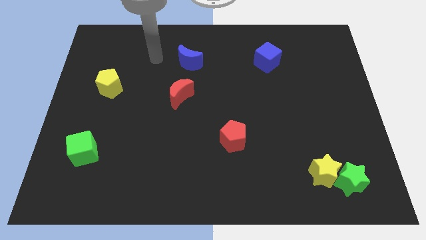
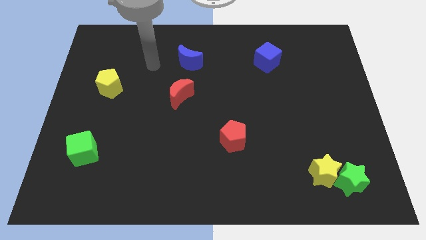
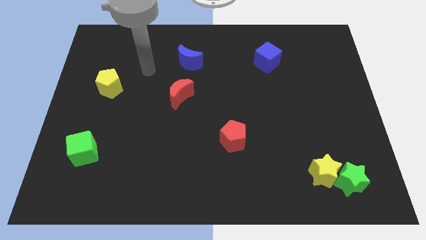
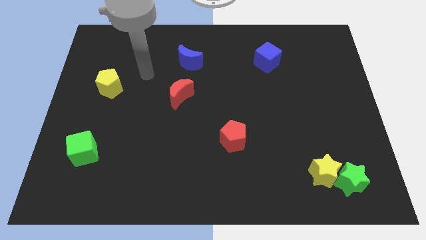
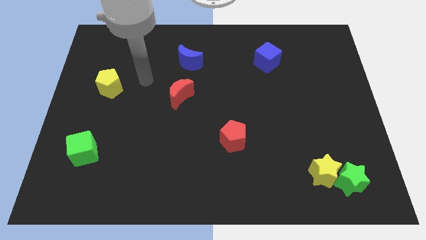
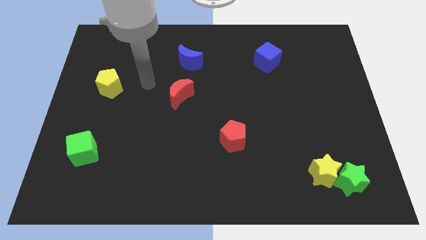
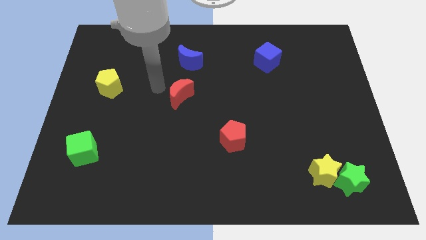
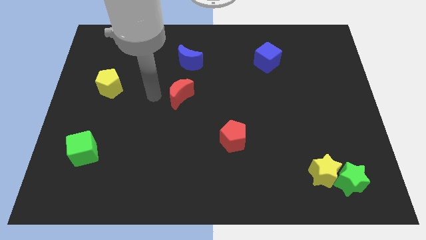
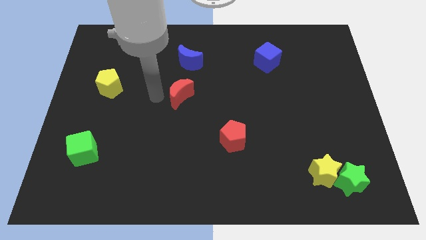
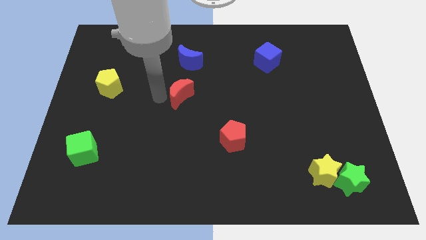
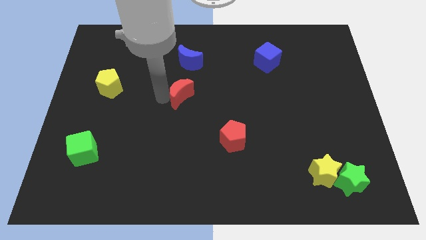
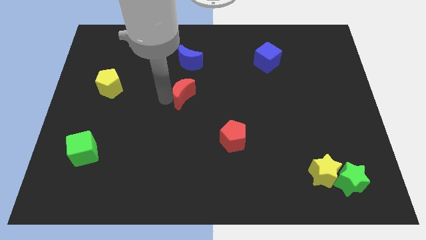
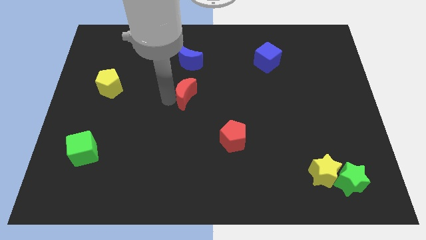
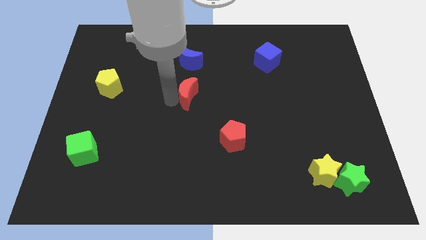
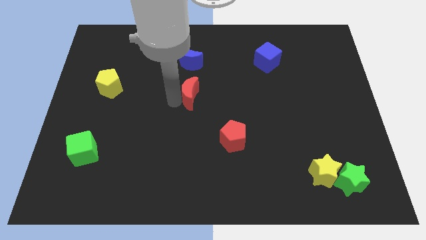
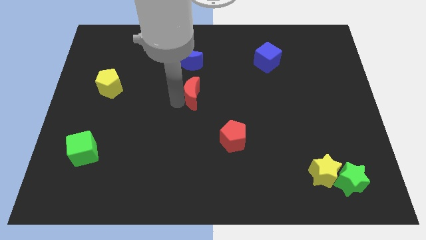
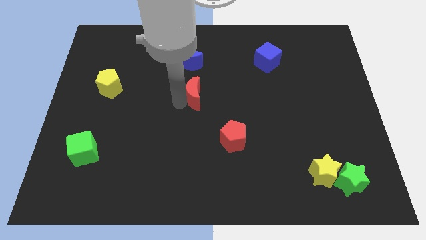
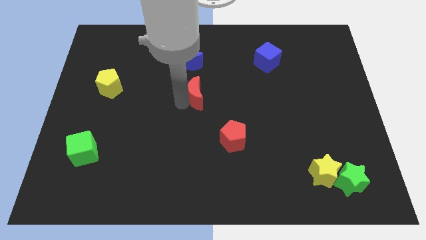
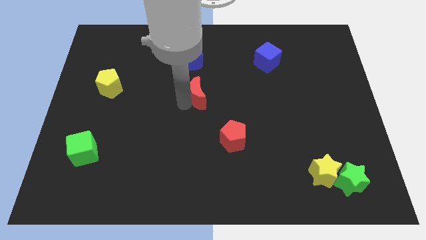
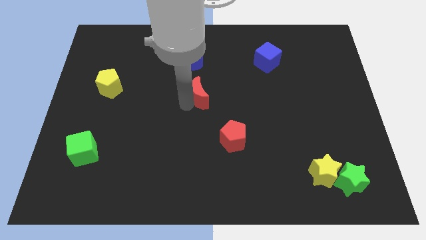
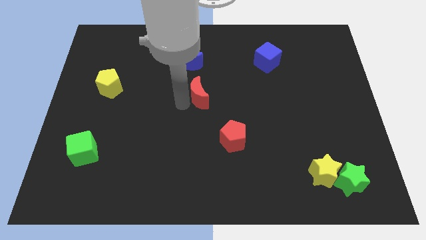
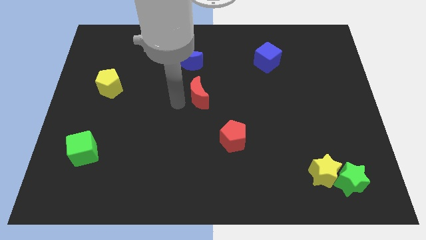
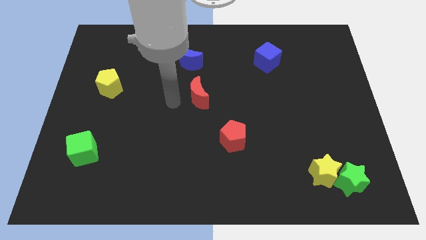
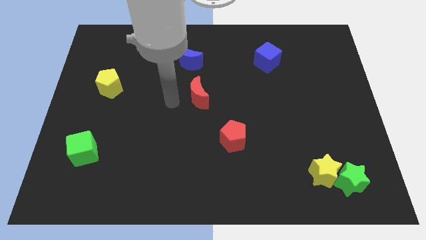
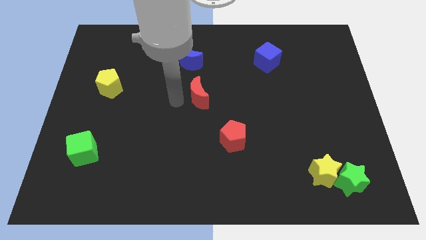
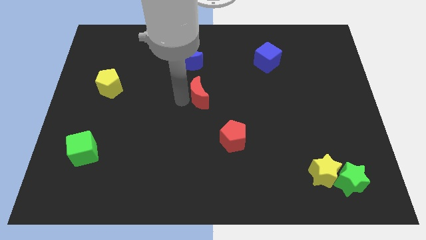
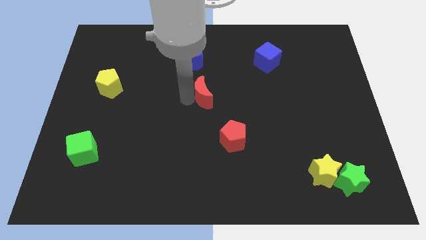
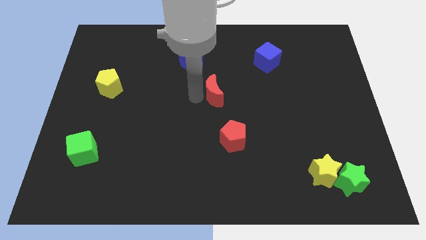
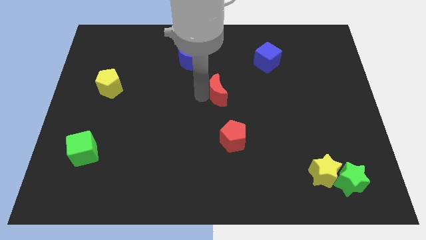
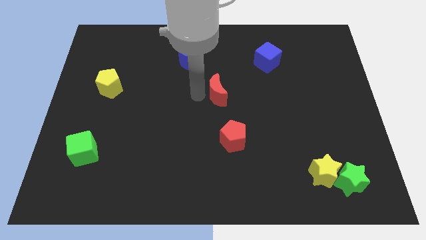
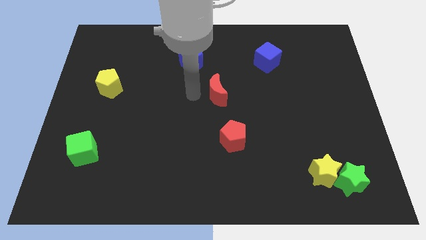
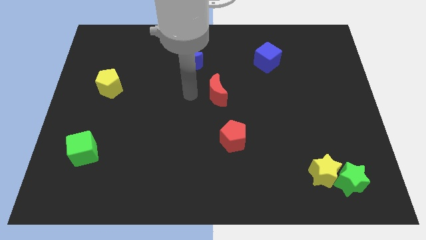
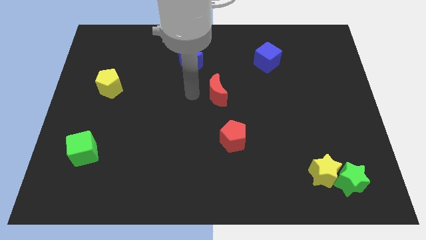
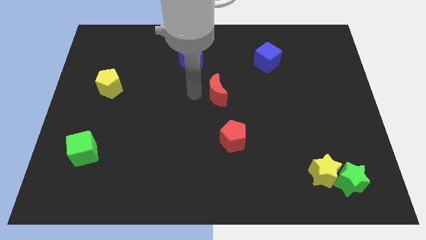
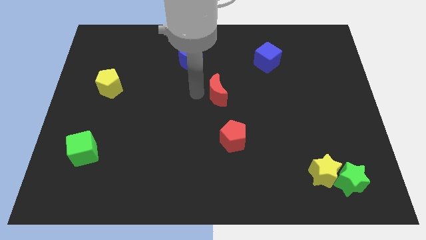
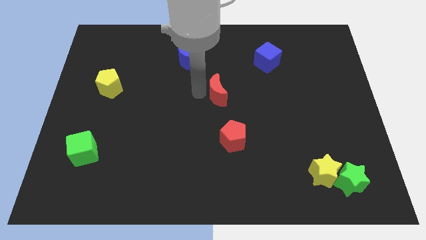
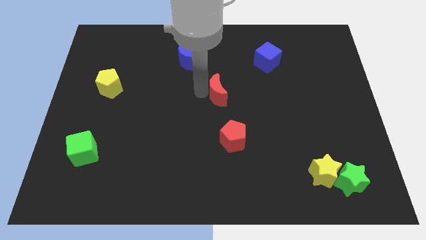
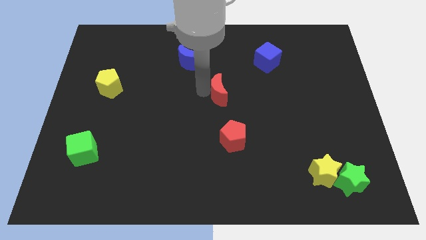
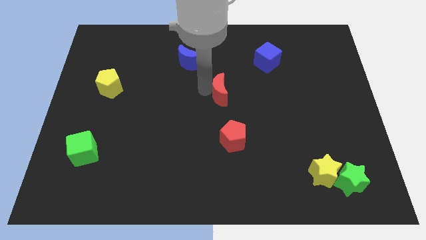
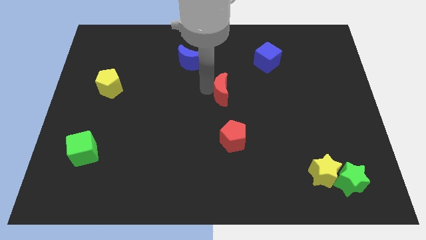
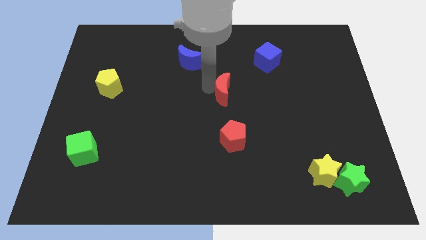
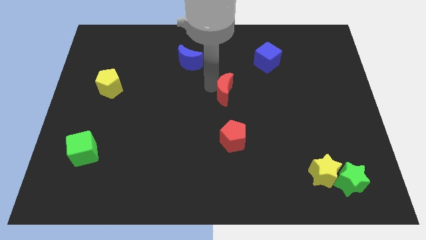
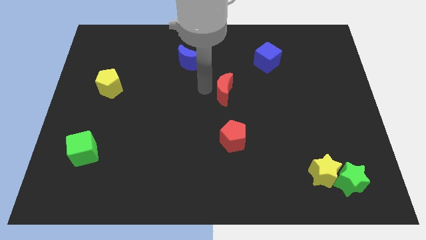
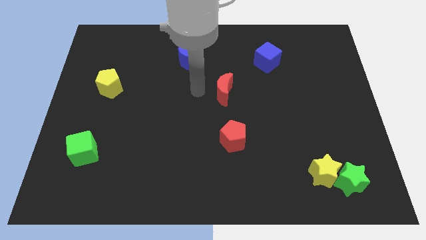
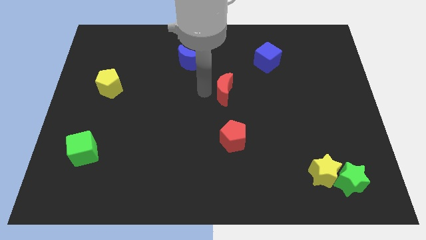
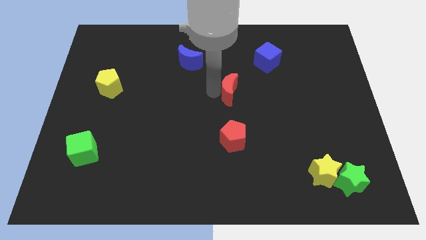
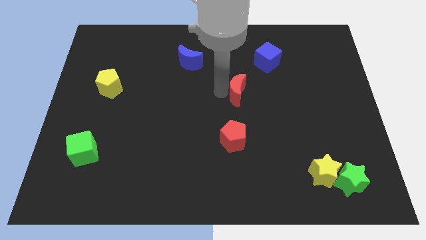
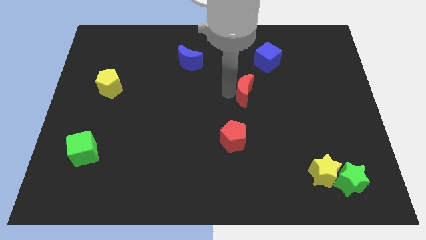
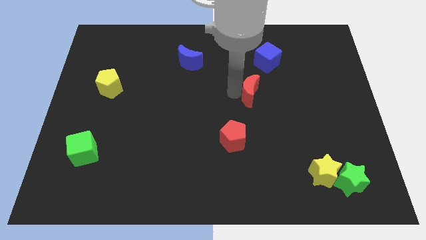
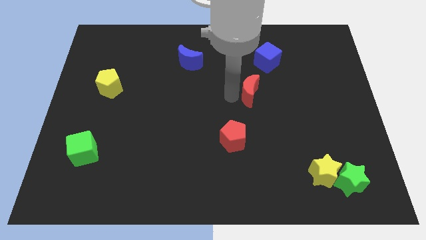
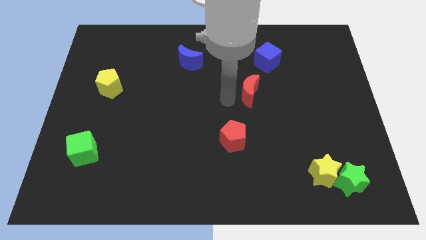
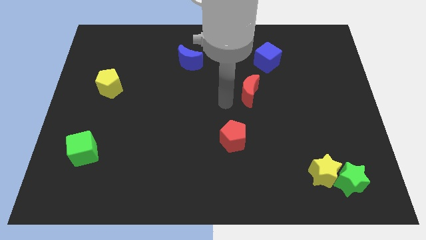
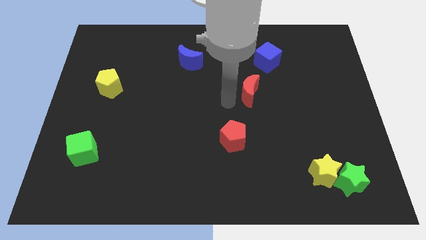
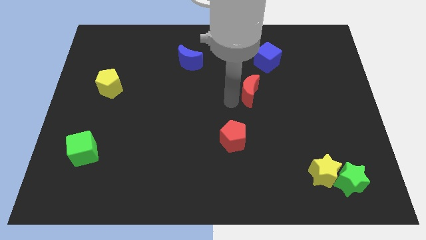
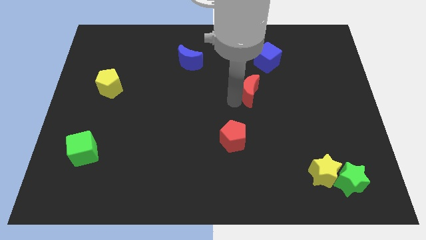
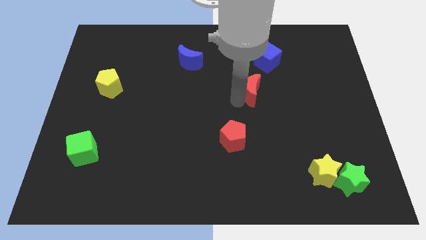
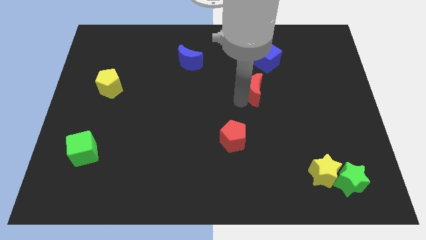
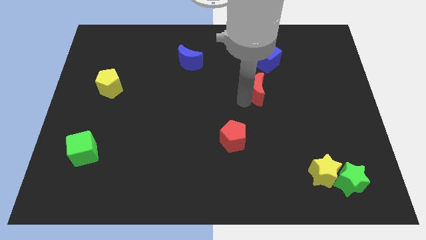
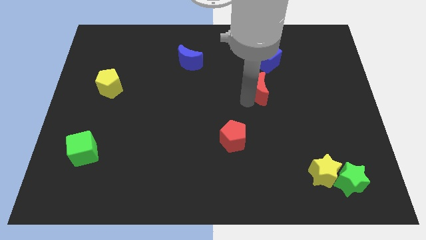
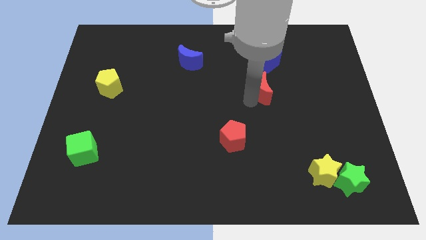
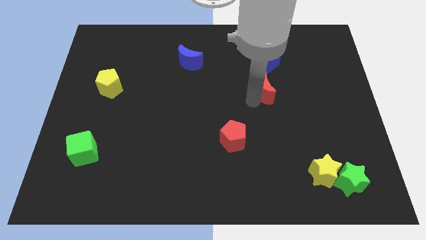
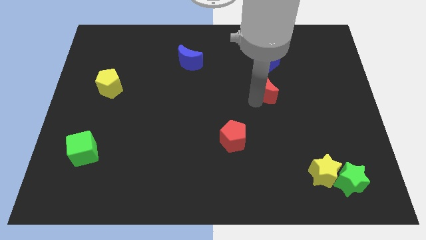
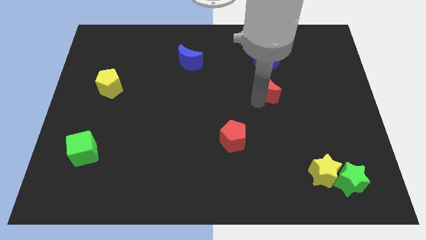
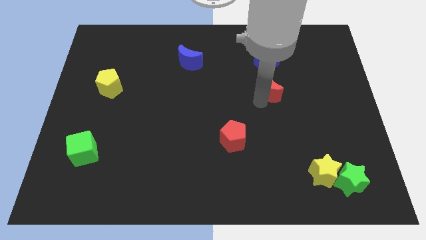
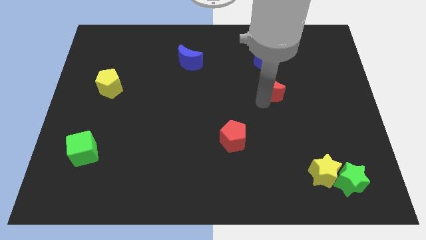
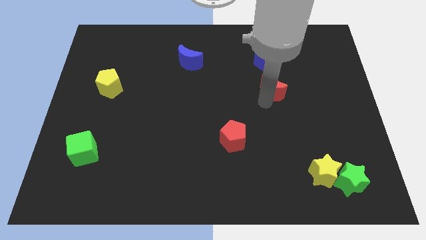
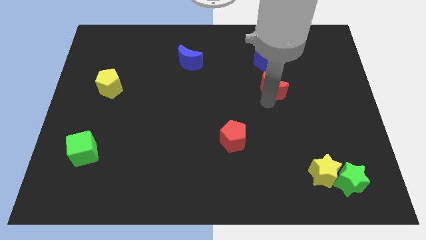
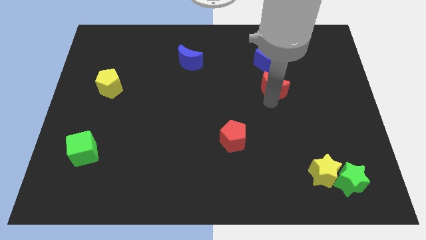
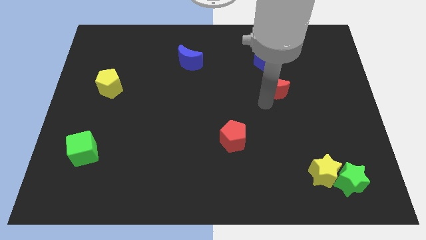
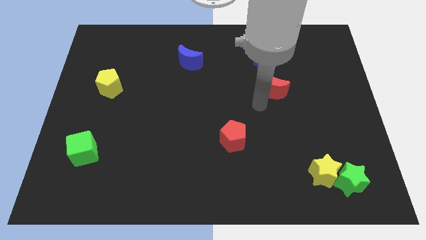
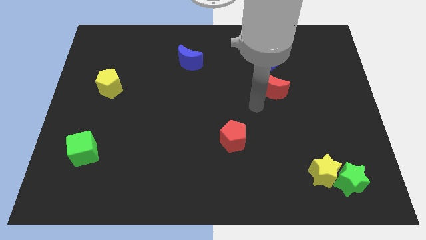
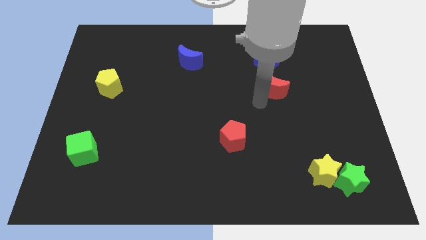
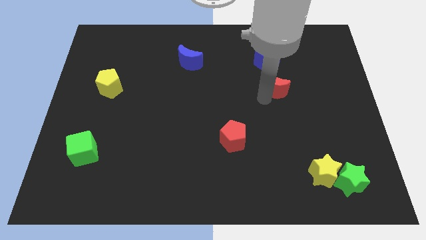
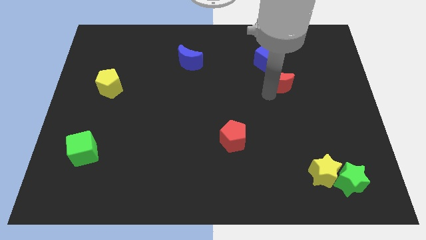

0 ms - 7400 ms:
move the red moon to the bottom right side of the blue cube
